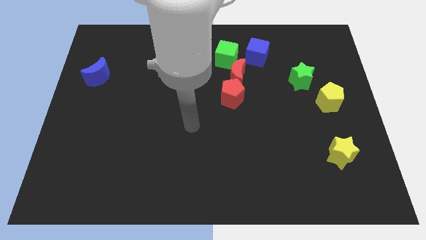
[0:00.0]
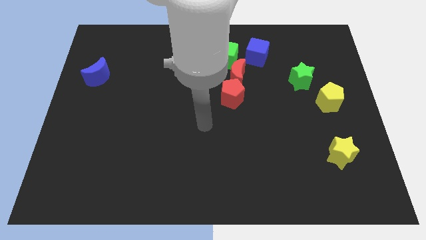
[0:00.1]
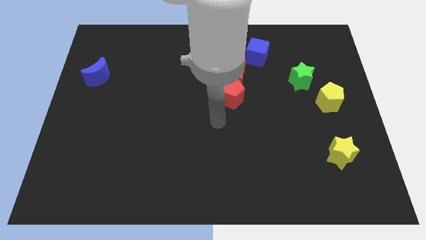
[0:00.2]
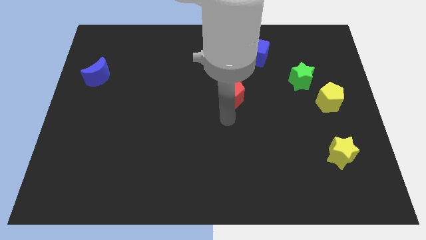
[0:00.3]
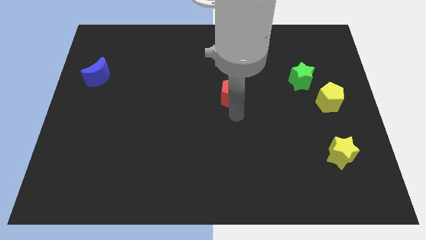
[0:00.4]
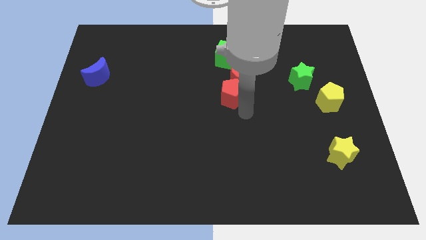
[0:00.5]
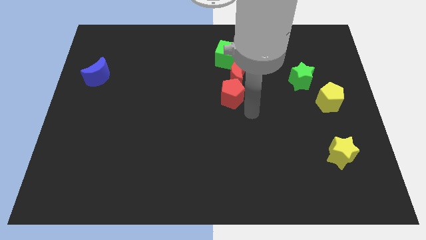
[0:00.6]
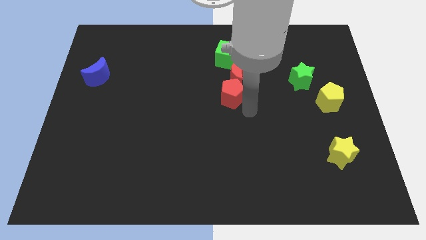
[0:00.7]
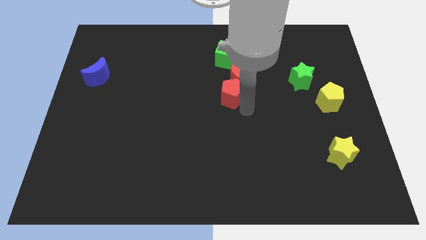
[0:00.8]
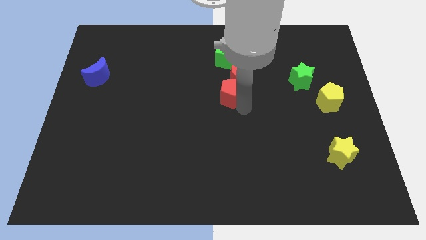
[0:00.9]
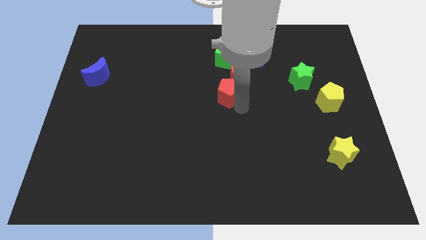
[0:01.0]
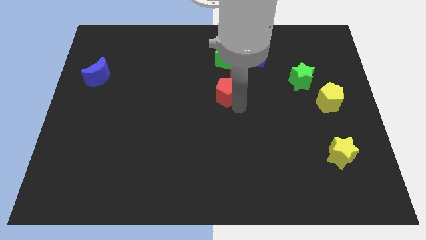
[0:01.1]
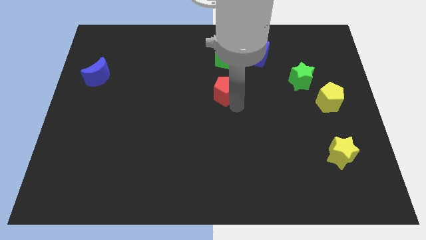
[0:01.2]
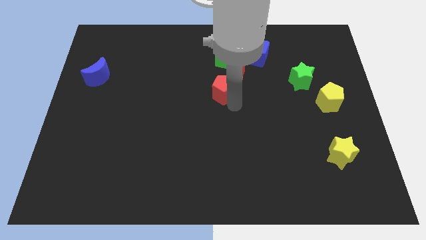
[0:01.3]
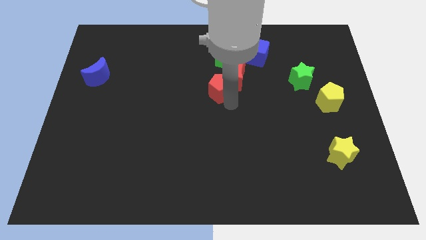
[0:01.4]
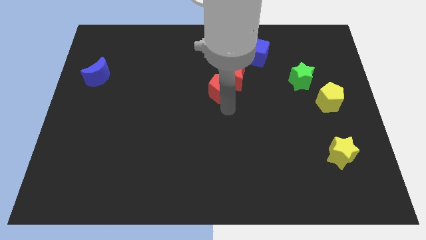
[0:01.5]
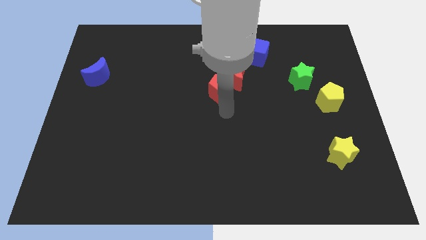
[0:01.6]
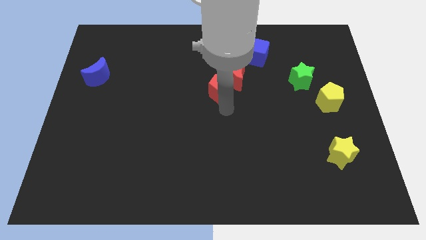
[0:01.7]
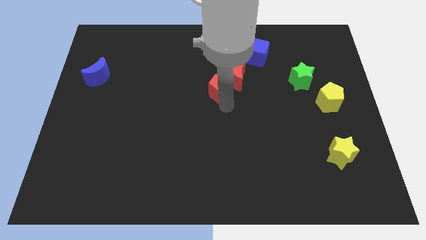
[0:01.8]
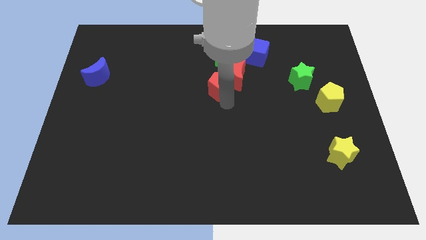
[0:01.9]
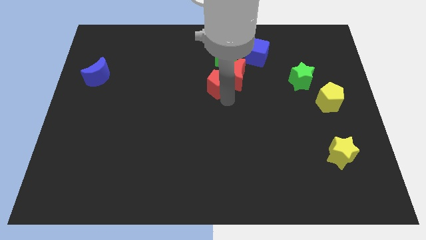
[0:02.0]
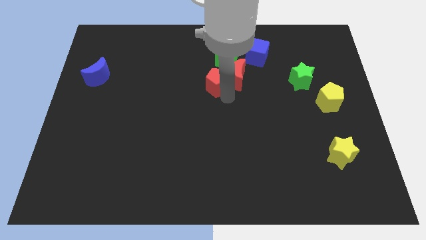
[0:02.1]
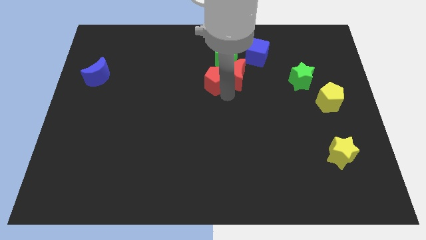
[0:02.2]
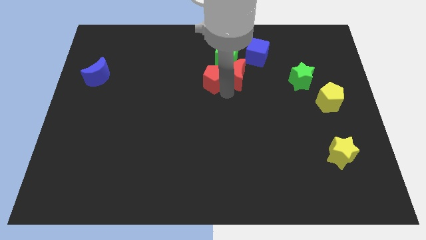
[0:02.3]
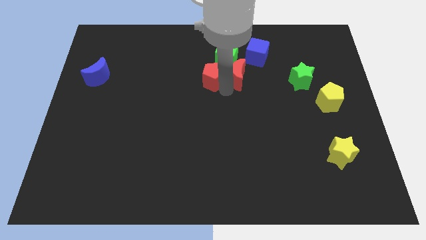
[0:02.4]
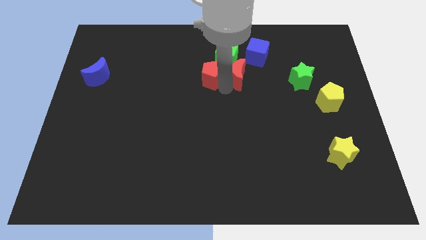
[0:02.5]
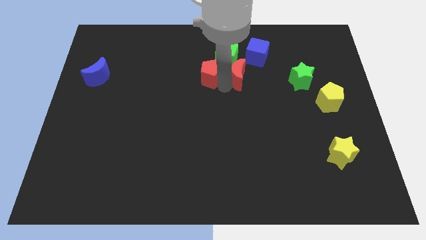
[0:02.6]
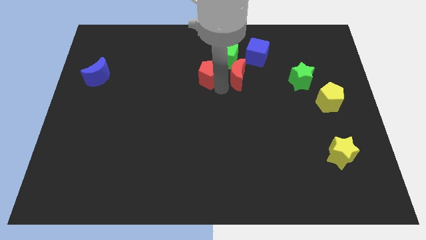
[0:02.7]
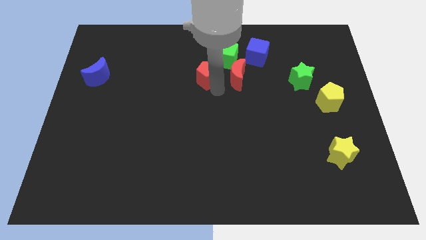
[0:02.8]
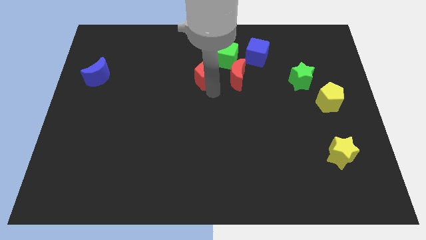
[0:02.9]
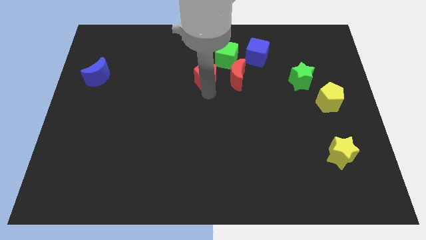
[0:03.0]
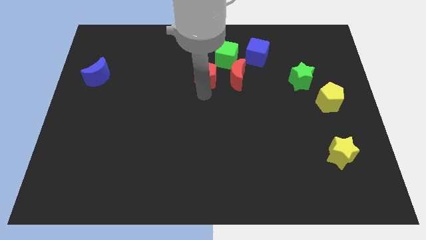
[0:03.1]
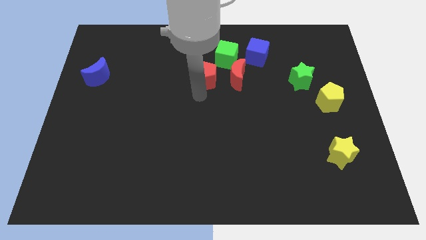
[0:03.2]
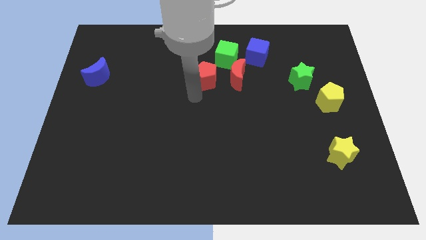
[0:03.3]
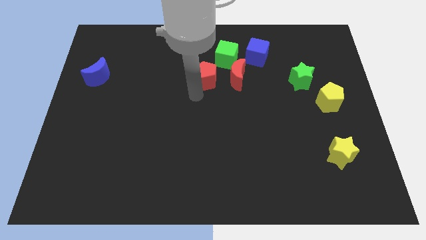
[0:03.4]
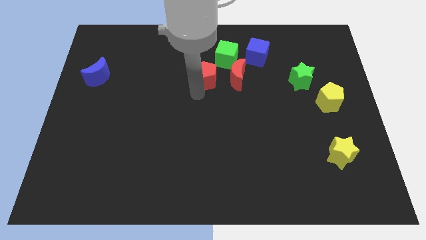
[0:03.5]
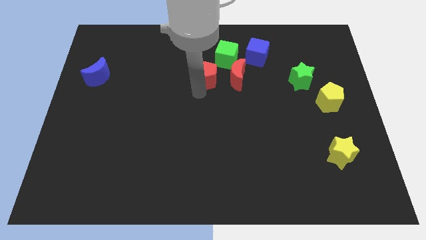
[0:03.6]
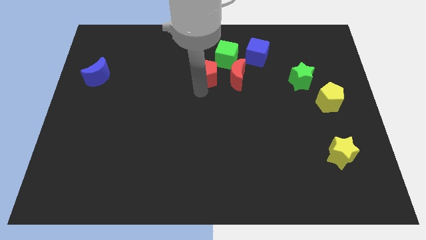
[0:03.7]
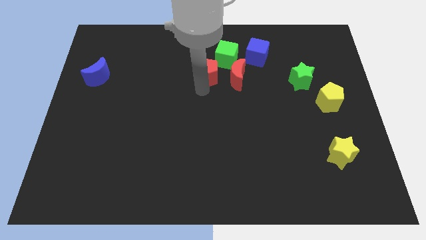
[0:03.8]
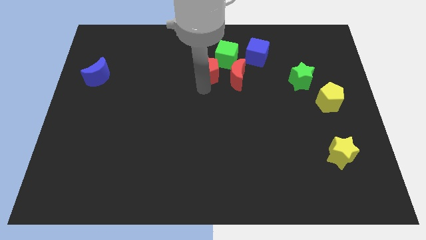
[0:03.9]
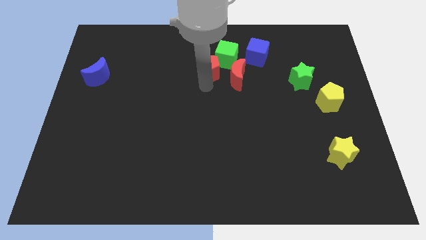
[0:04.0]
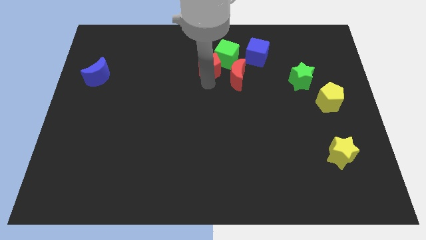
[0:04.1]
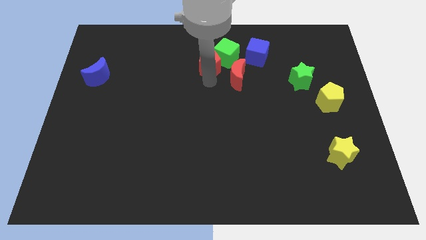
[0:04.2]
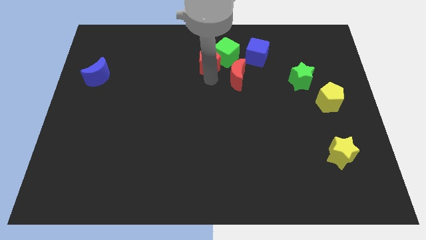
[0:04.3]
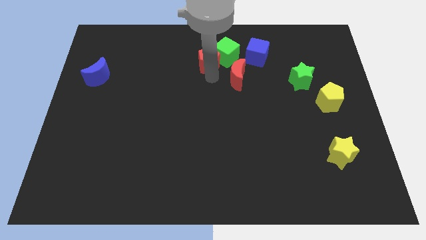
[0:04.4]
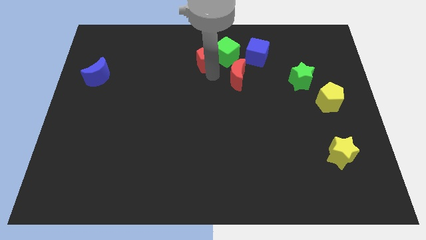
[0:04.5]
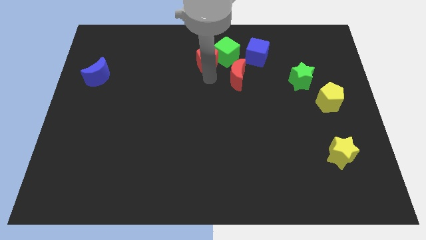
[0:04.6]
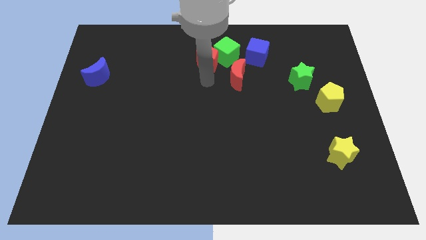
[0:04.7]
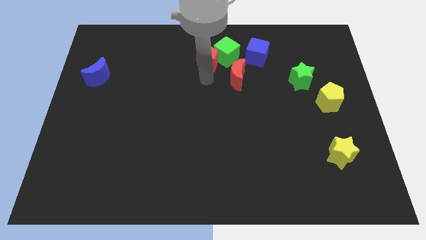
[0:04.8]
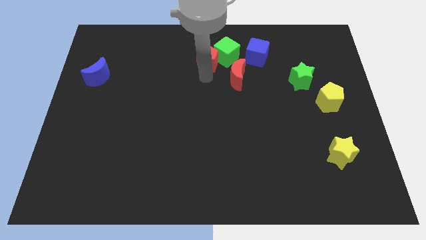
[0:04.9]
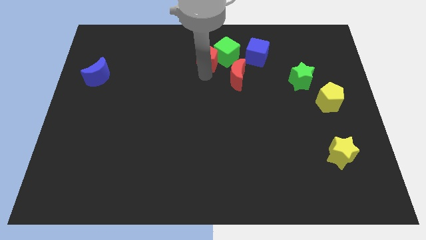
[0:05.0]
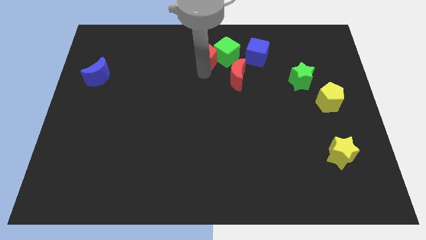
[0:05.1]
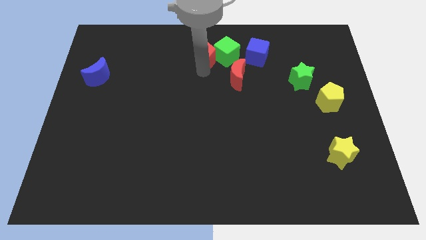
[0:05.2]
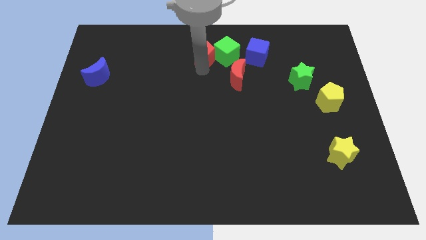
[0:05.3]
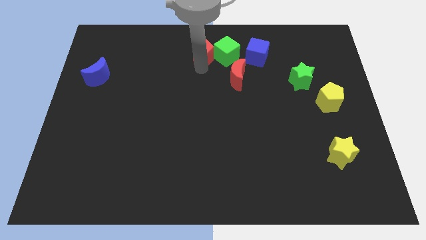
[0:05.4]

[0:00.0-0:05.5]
slide the red pentagon to the top
